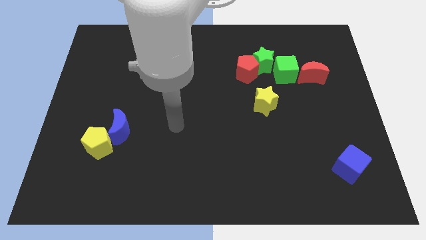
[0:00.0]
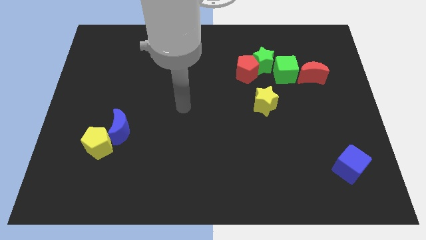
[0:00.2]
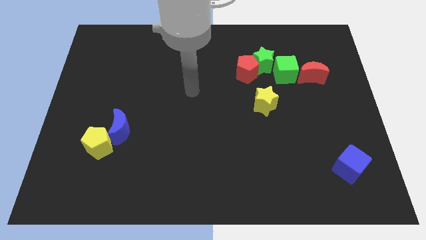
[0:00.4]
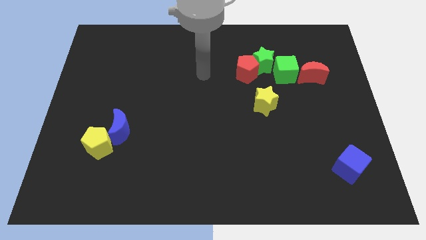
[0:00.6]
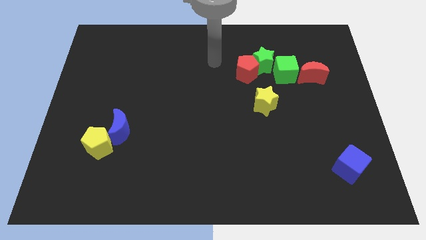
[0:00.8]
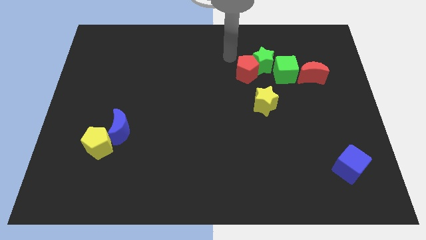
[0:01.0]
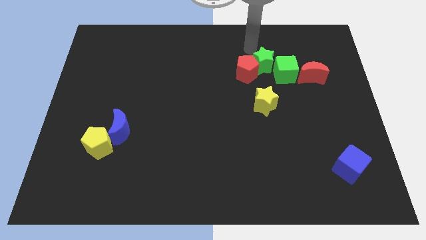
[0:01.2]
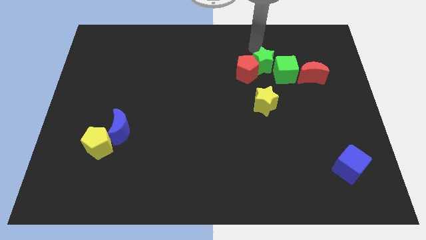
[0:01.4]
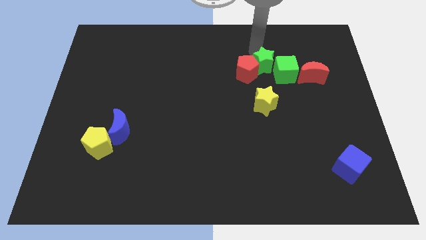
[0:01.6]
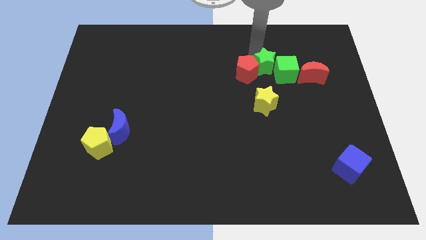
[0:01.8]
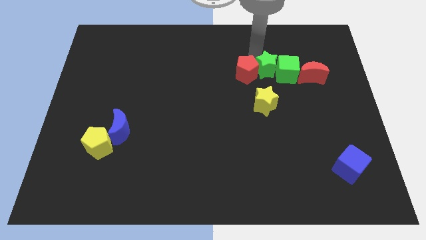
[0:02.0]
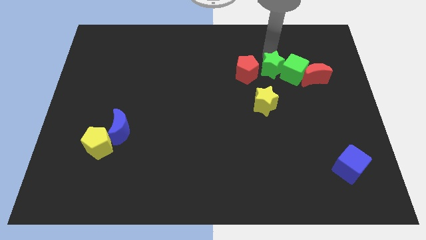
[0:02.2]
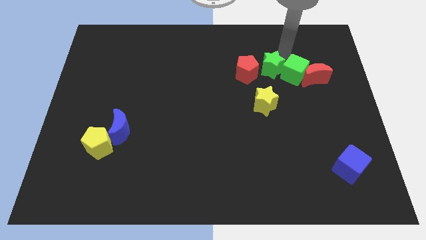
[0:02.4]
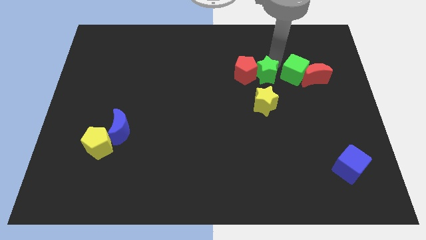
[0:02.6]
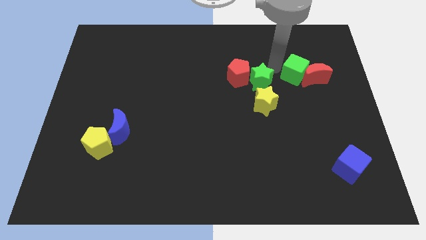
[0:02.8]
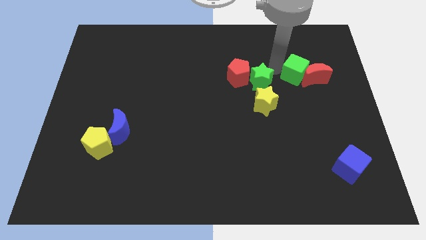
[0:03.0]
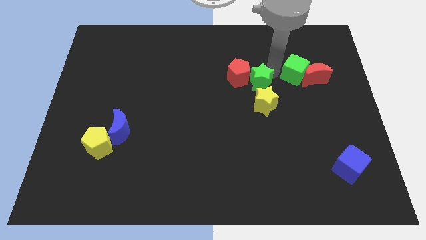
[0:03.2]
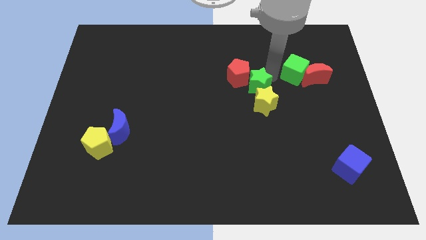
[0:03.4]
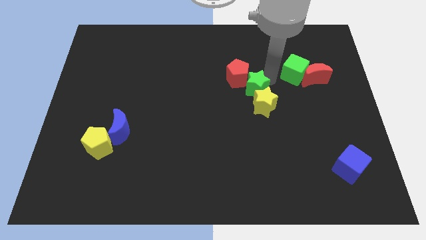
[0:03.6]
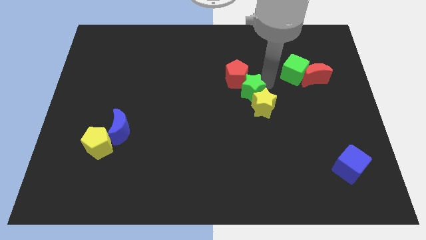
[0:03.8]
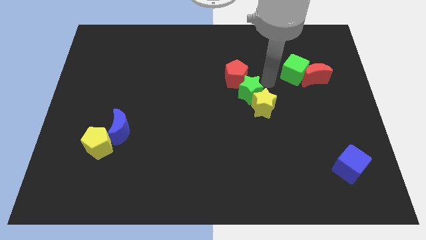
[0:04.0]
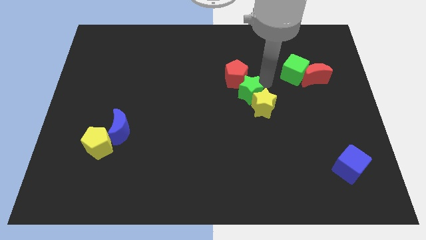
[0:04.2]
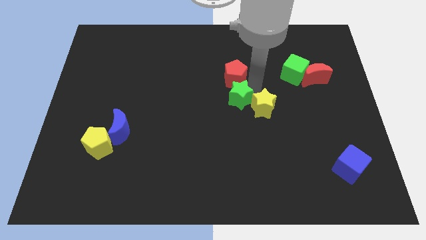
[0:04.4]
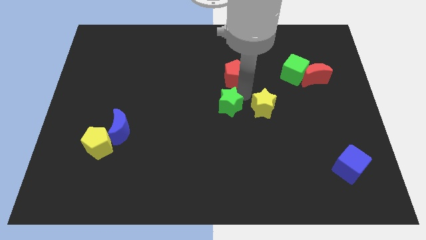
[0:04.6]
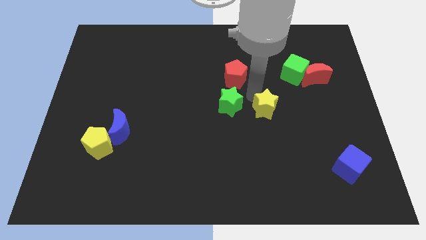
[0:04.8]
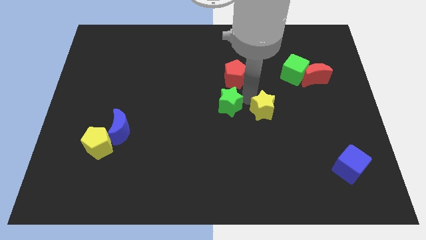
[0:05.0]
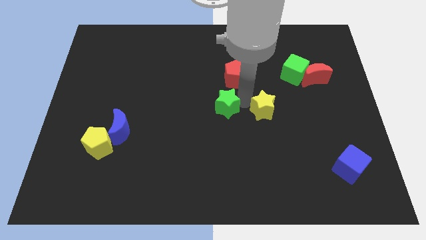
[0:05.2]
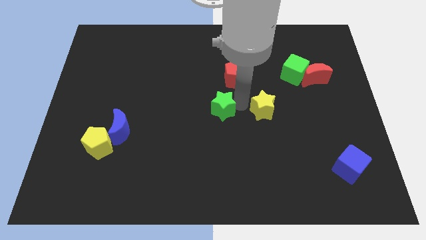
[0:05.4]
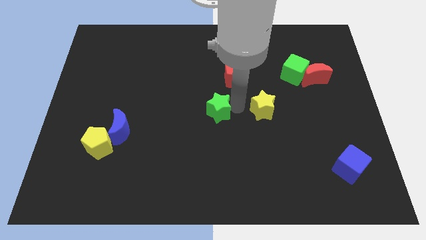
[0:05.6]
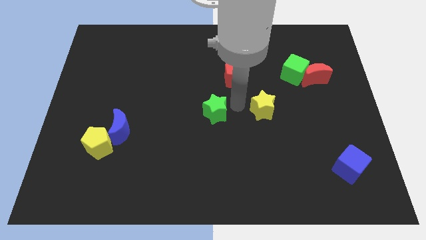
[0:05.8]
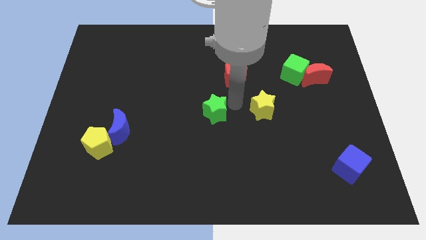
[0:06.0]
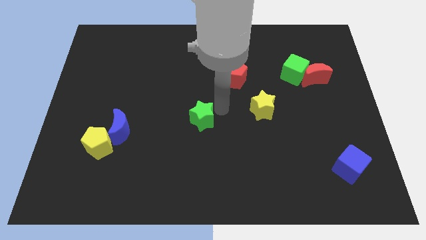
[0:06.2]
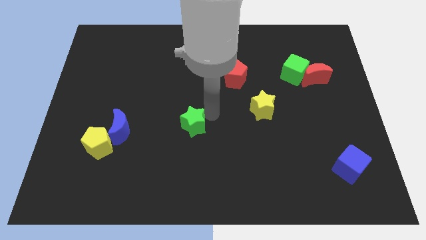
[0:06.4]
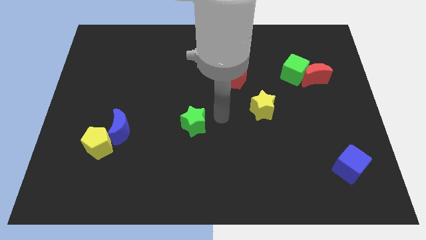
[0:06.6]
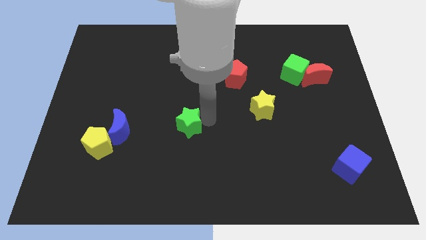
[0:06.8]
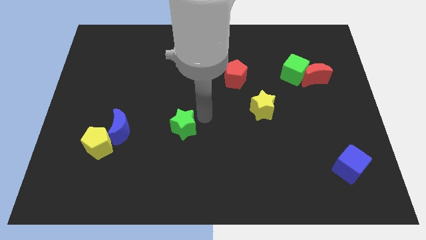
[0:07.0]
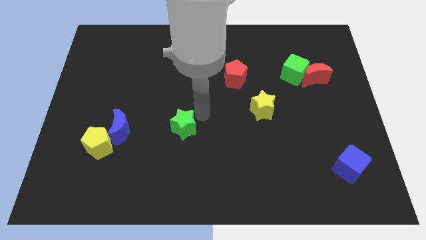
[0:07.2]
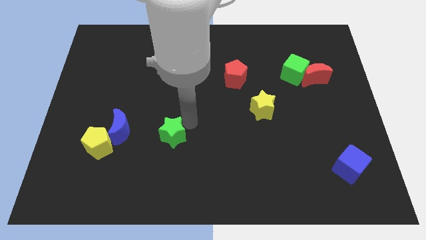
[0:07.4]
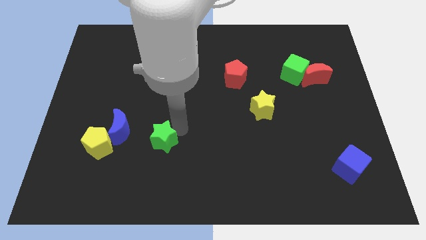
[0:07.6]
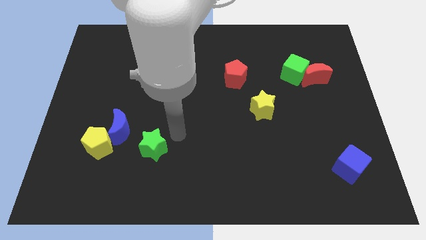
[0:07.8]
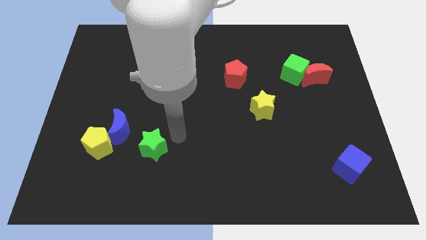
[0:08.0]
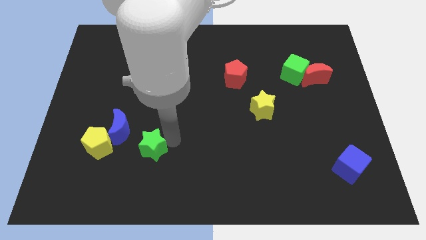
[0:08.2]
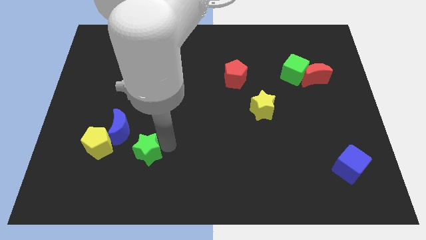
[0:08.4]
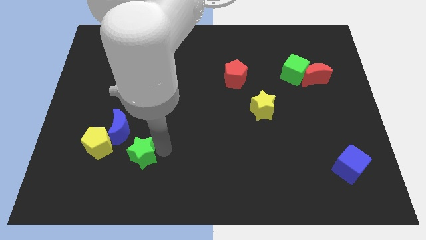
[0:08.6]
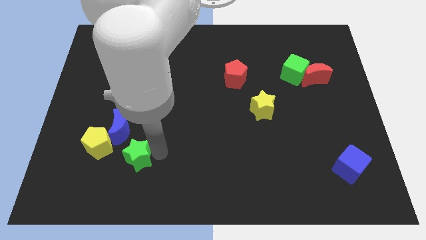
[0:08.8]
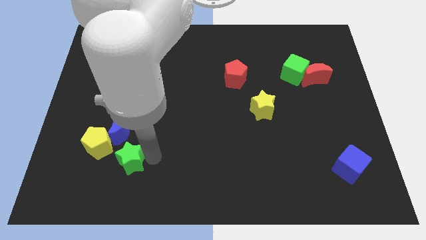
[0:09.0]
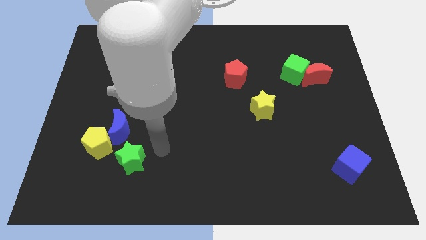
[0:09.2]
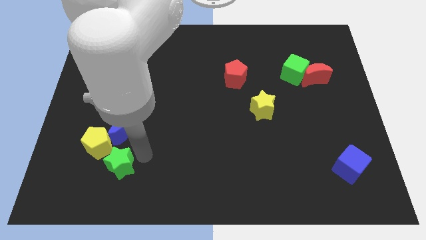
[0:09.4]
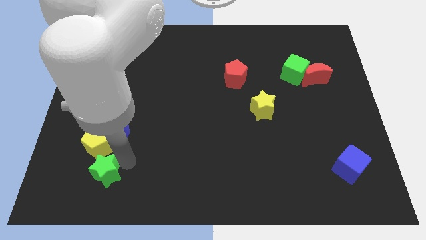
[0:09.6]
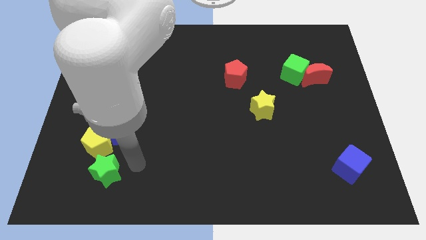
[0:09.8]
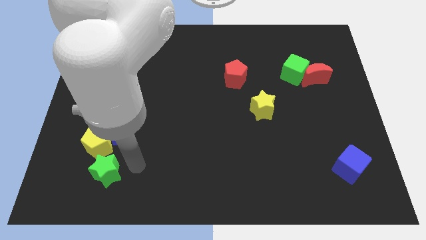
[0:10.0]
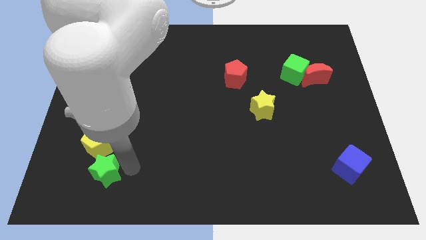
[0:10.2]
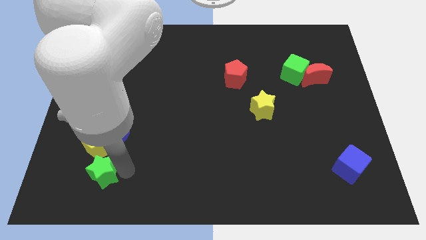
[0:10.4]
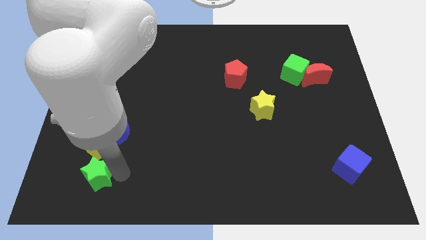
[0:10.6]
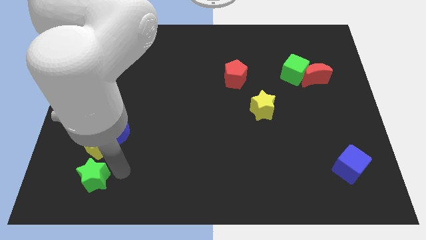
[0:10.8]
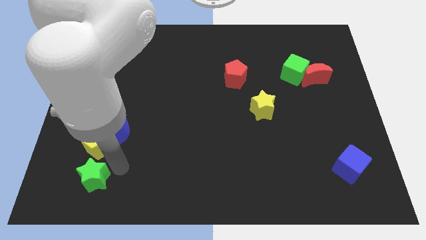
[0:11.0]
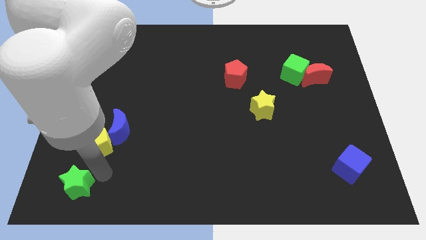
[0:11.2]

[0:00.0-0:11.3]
push the green star to the bottom left
